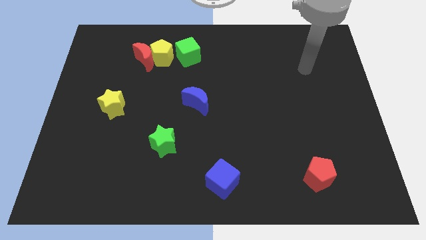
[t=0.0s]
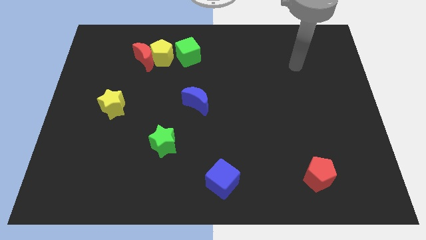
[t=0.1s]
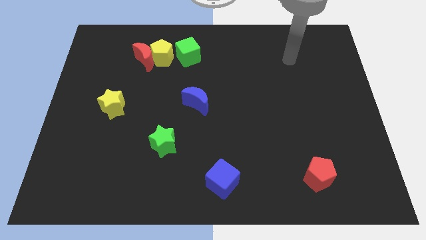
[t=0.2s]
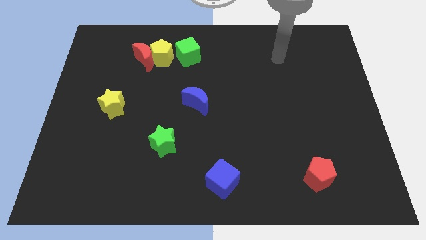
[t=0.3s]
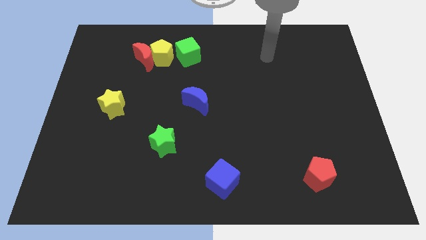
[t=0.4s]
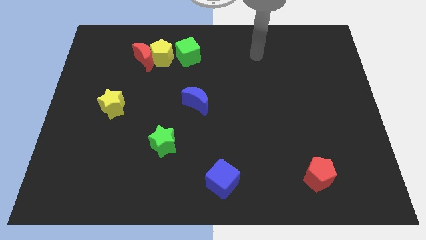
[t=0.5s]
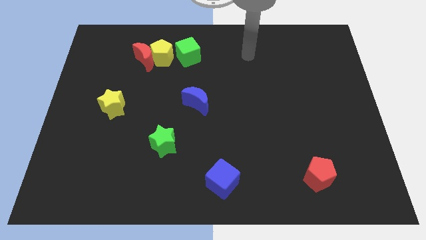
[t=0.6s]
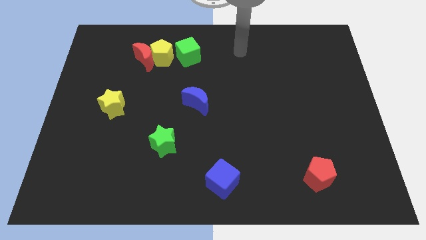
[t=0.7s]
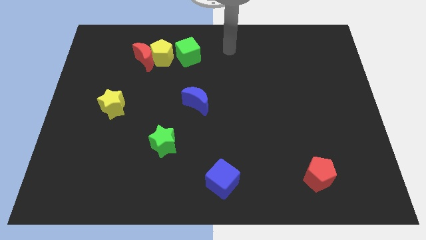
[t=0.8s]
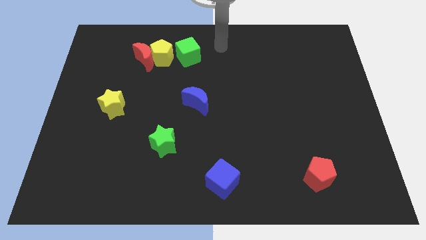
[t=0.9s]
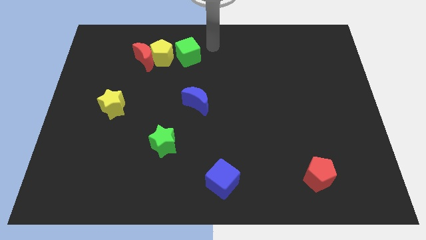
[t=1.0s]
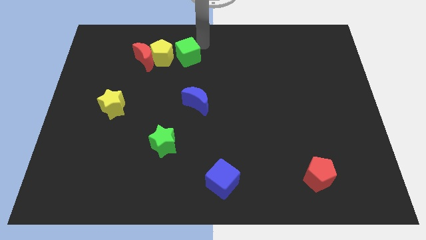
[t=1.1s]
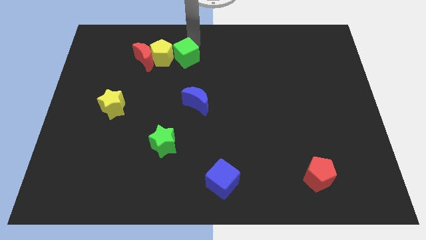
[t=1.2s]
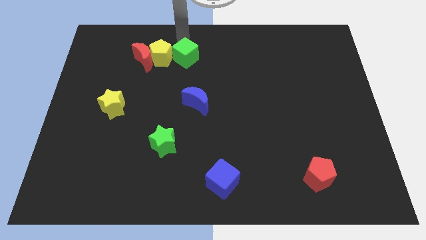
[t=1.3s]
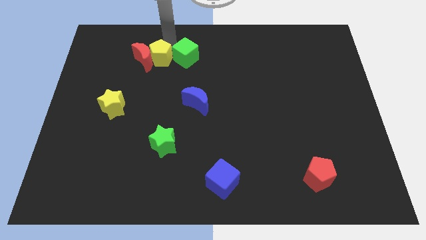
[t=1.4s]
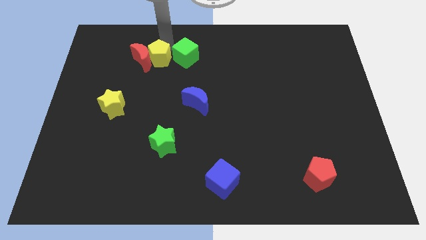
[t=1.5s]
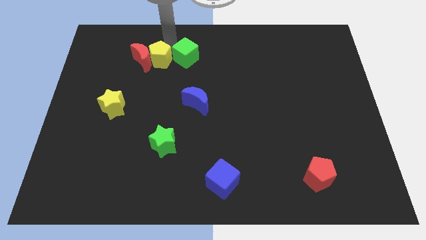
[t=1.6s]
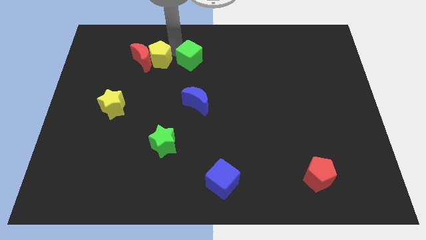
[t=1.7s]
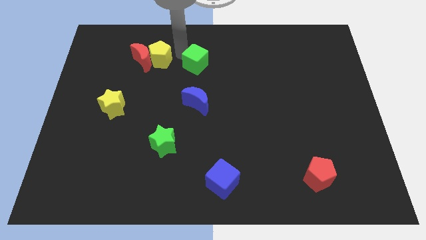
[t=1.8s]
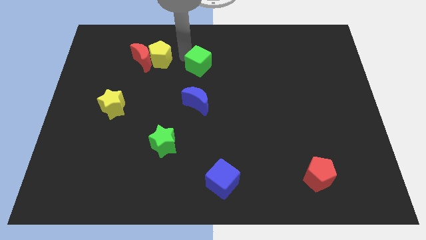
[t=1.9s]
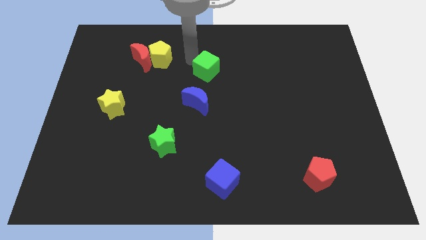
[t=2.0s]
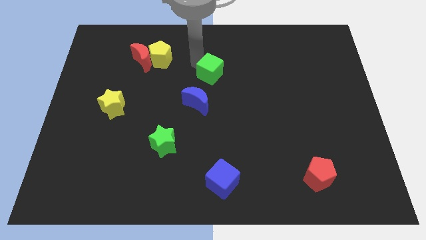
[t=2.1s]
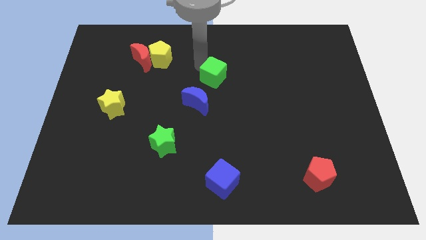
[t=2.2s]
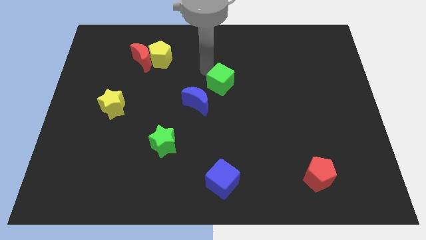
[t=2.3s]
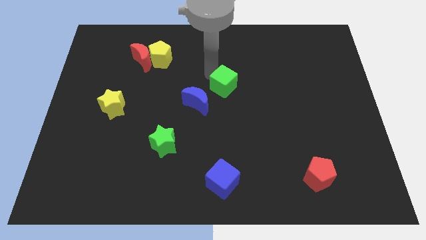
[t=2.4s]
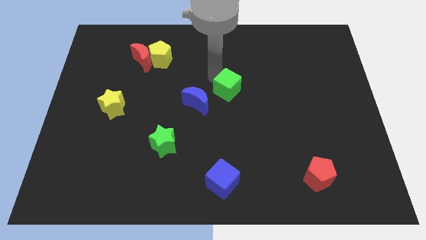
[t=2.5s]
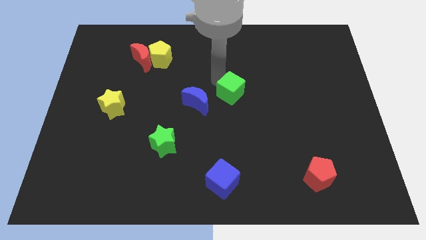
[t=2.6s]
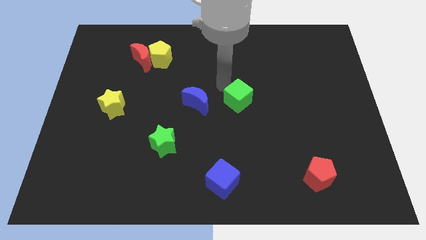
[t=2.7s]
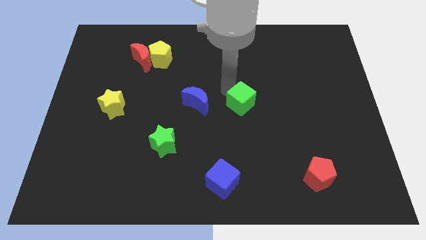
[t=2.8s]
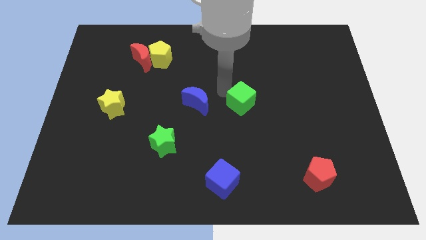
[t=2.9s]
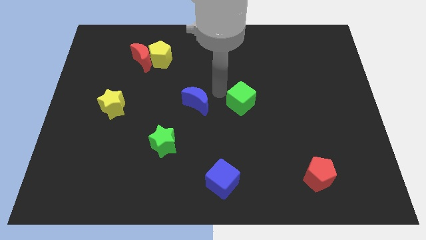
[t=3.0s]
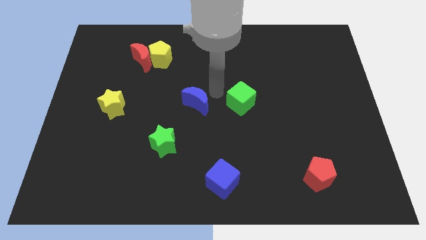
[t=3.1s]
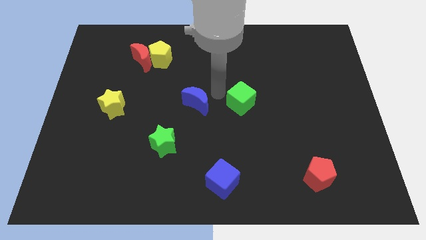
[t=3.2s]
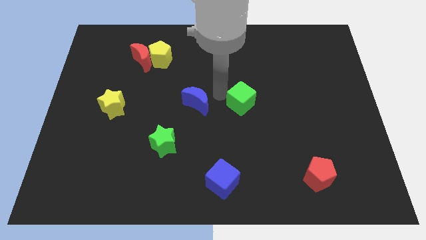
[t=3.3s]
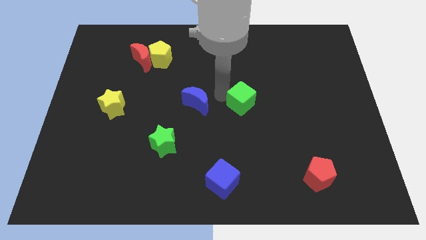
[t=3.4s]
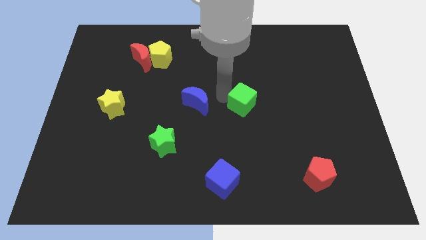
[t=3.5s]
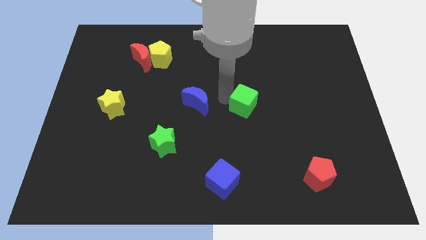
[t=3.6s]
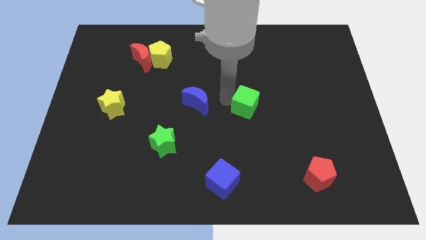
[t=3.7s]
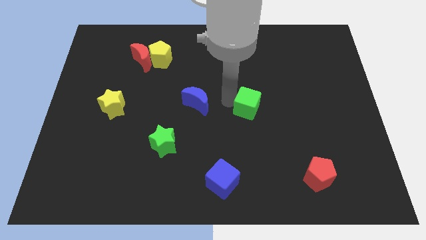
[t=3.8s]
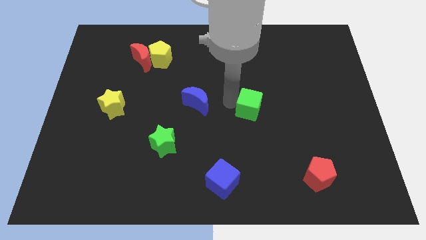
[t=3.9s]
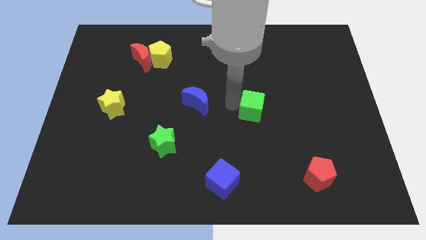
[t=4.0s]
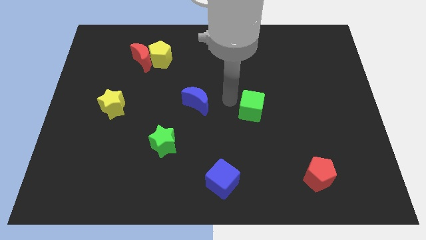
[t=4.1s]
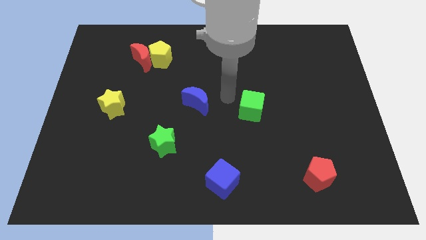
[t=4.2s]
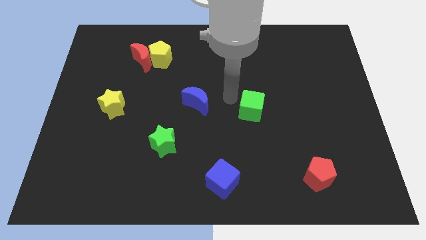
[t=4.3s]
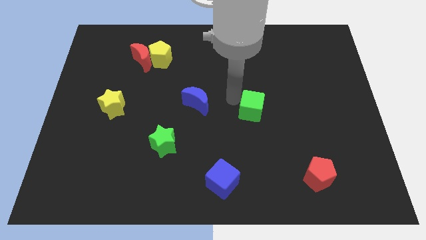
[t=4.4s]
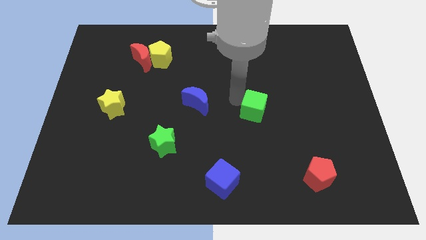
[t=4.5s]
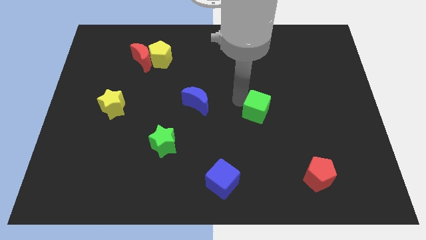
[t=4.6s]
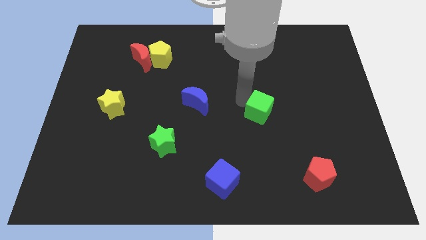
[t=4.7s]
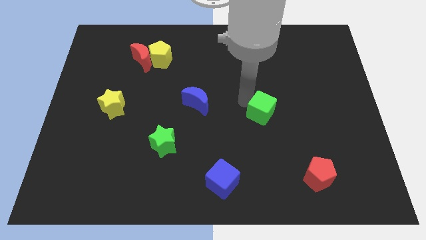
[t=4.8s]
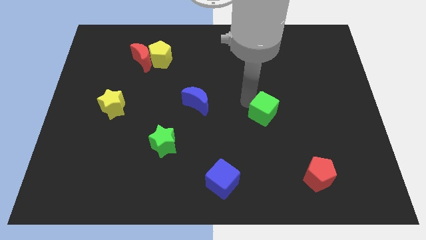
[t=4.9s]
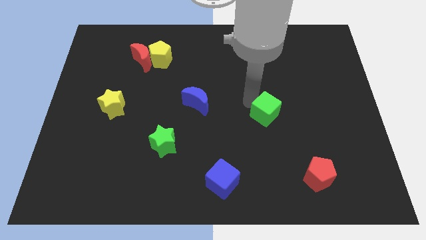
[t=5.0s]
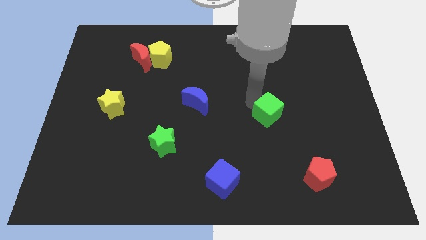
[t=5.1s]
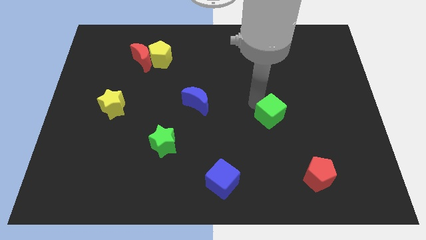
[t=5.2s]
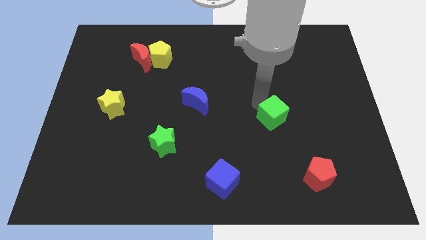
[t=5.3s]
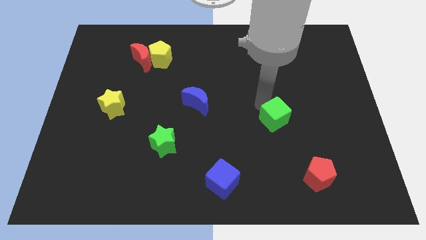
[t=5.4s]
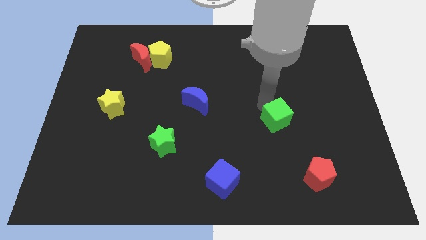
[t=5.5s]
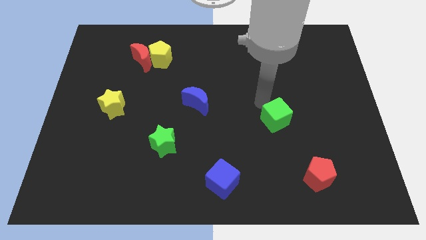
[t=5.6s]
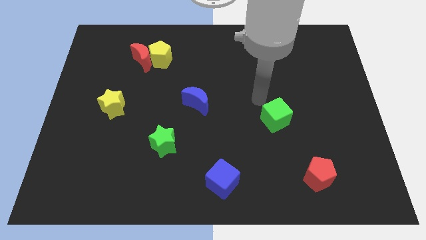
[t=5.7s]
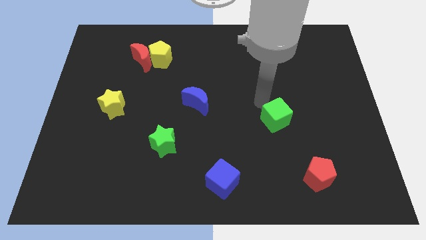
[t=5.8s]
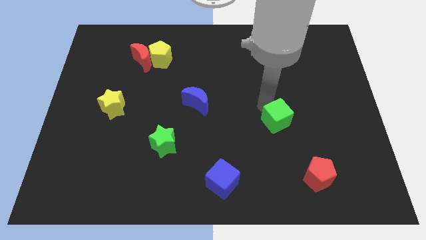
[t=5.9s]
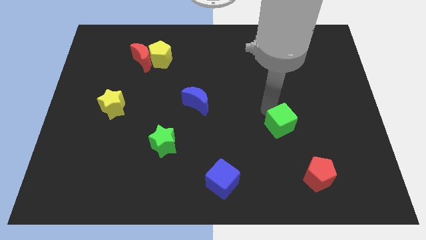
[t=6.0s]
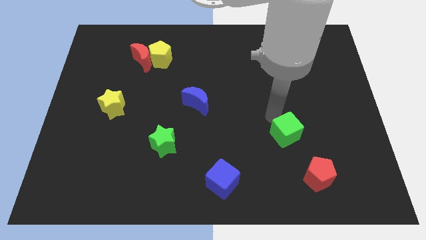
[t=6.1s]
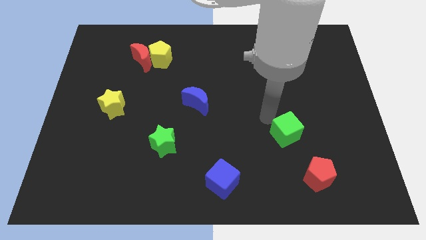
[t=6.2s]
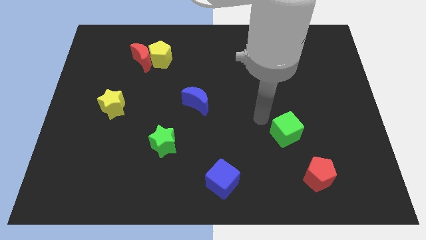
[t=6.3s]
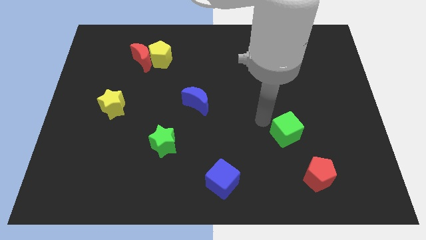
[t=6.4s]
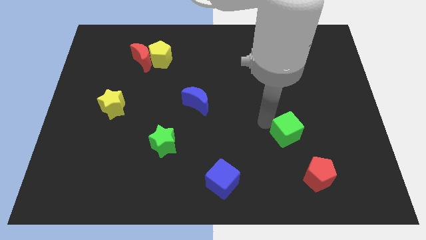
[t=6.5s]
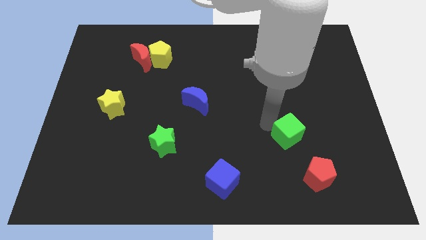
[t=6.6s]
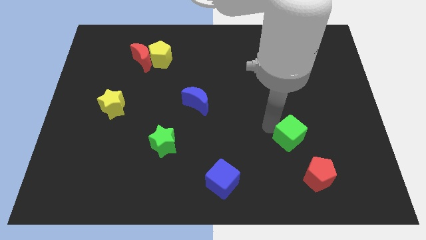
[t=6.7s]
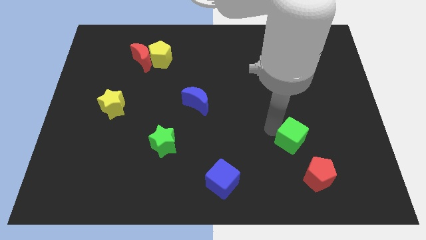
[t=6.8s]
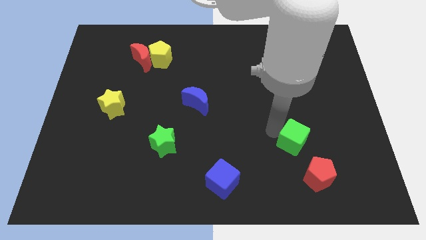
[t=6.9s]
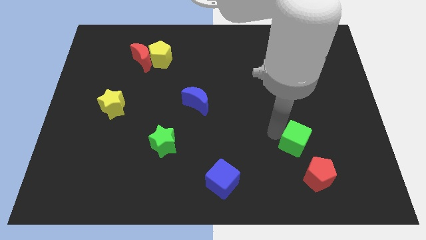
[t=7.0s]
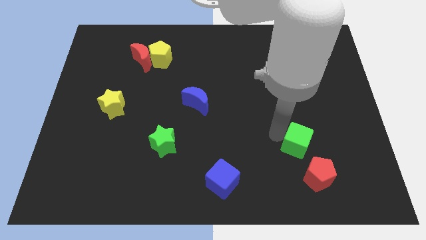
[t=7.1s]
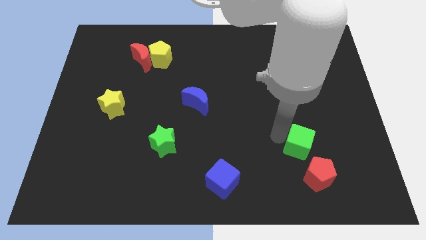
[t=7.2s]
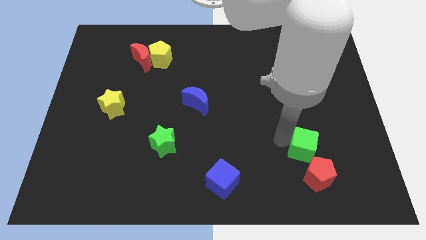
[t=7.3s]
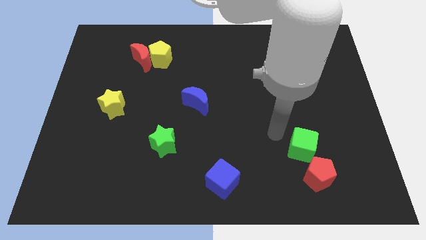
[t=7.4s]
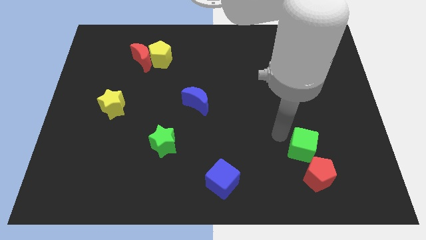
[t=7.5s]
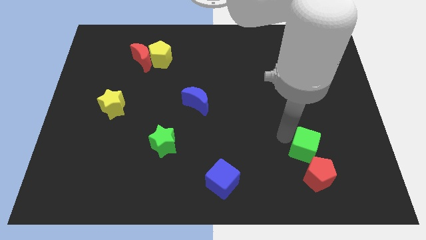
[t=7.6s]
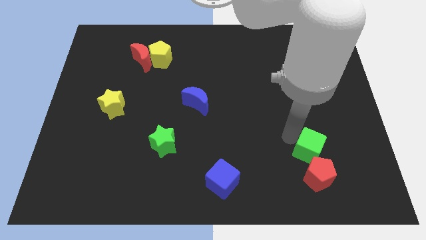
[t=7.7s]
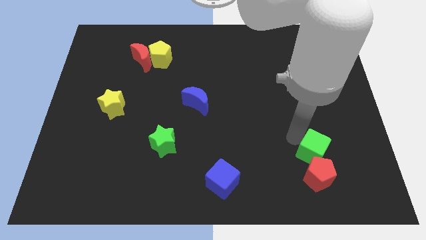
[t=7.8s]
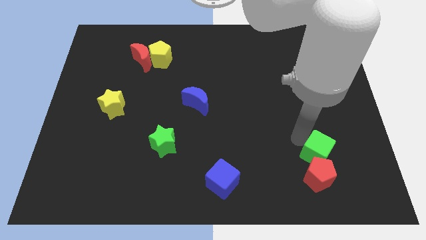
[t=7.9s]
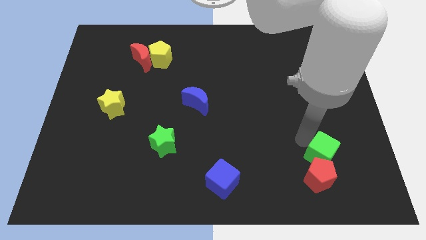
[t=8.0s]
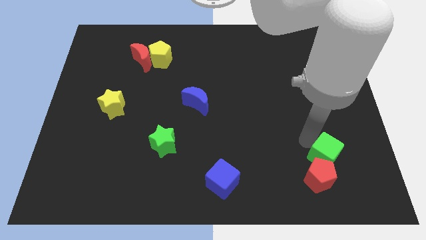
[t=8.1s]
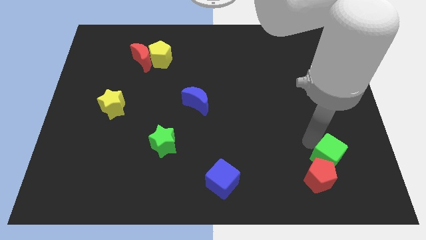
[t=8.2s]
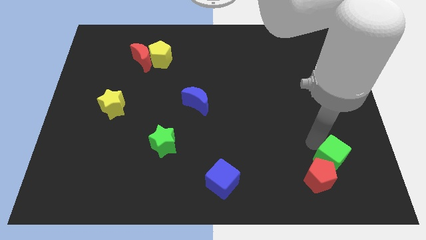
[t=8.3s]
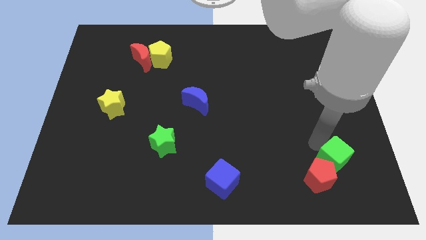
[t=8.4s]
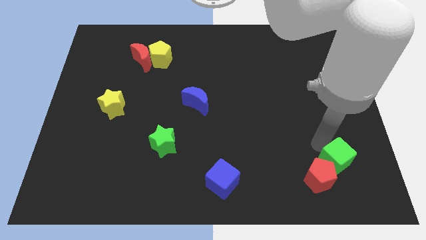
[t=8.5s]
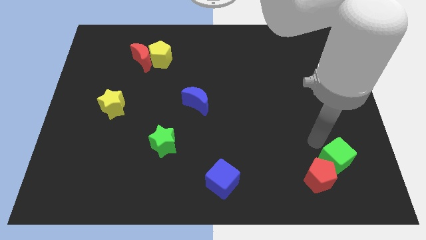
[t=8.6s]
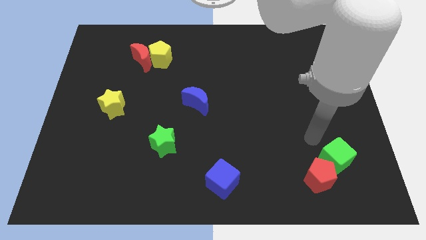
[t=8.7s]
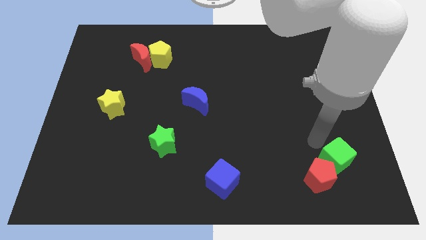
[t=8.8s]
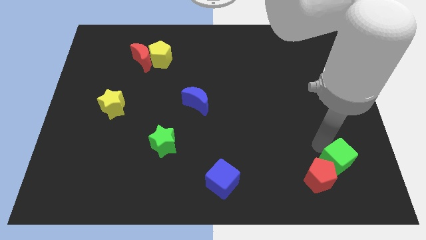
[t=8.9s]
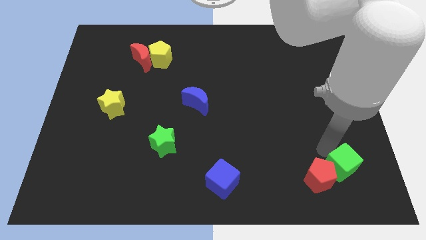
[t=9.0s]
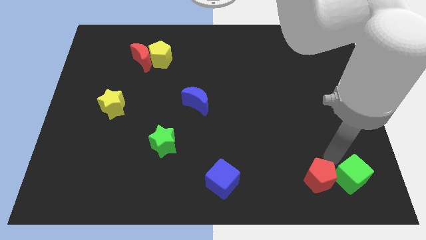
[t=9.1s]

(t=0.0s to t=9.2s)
move the green cube to the bottom right corner
